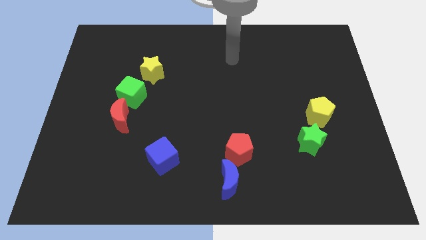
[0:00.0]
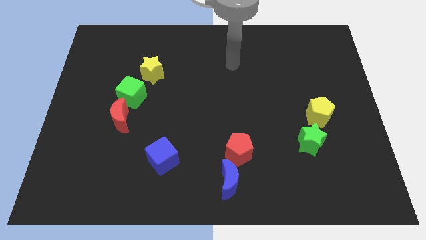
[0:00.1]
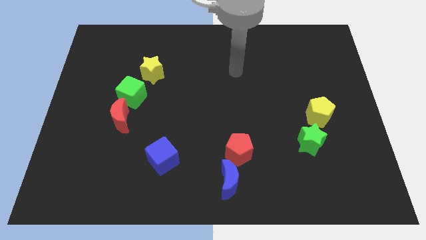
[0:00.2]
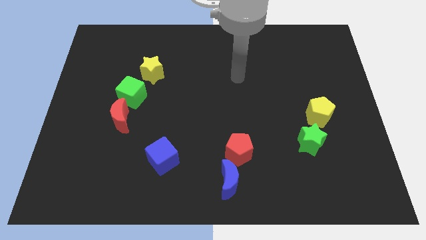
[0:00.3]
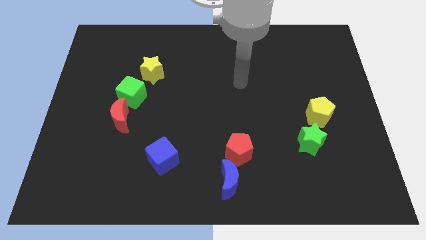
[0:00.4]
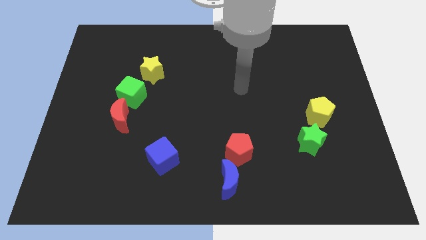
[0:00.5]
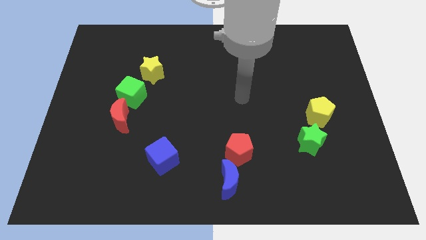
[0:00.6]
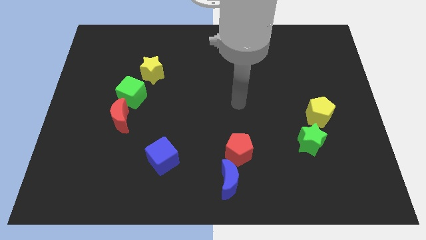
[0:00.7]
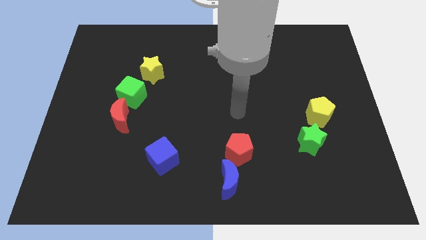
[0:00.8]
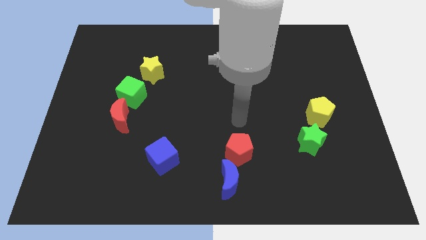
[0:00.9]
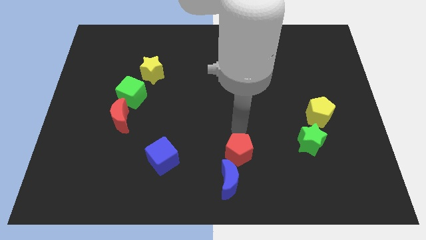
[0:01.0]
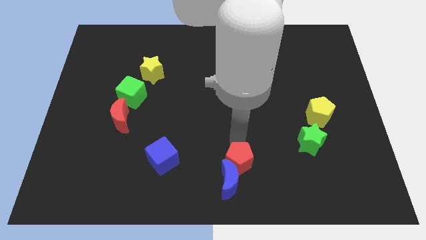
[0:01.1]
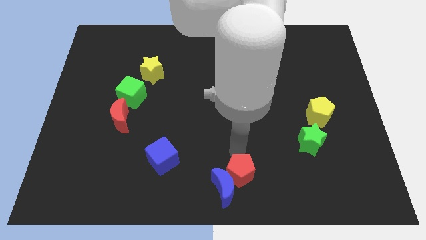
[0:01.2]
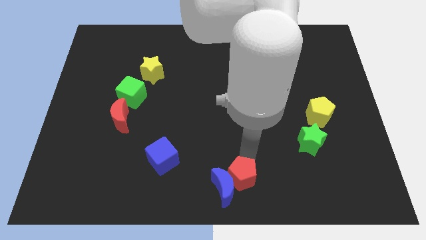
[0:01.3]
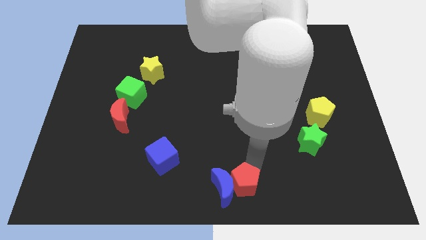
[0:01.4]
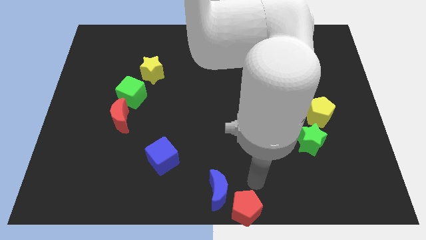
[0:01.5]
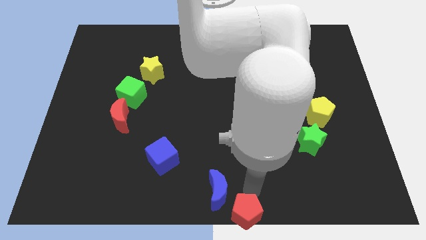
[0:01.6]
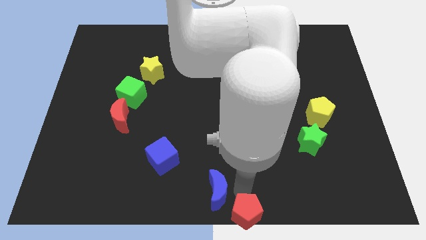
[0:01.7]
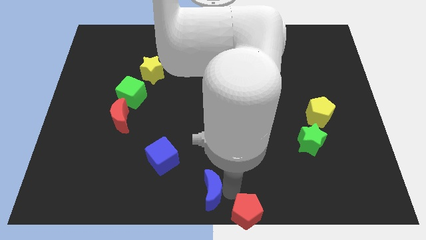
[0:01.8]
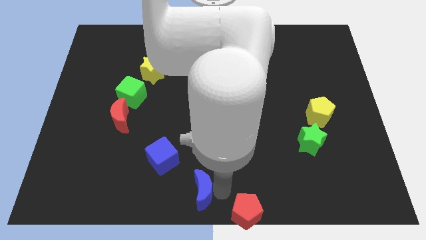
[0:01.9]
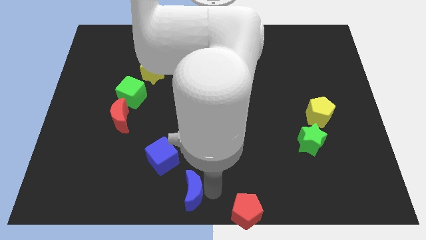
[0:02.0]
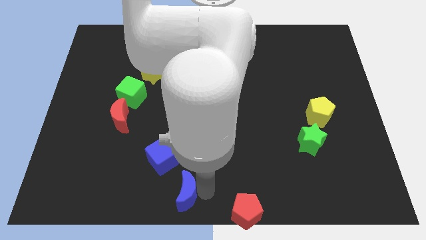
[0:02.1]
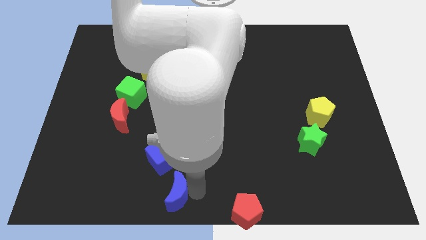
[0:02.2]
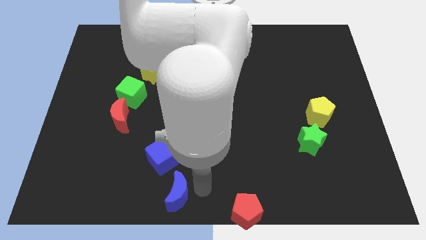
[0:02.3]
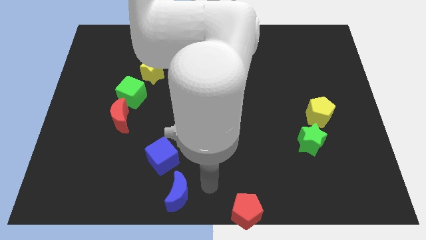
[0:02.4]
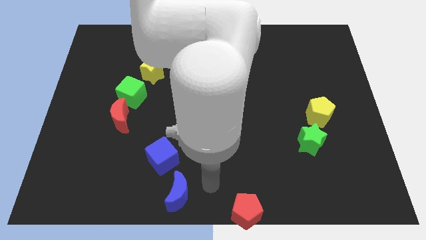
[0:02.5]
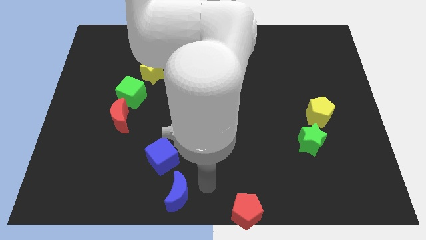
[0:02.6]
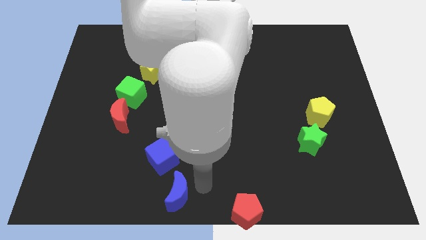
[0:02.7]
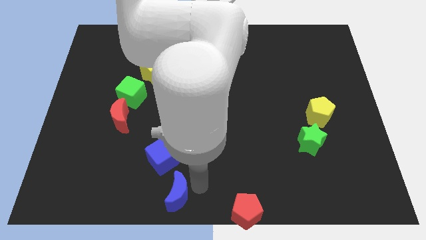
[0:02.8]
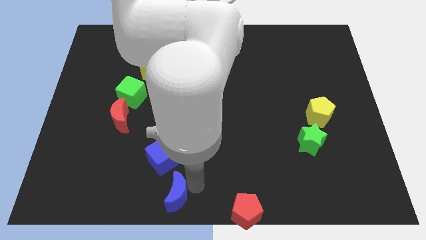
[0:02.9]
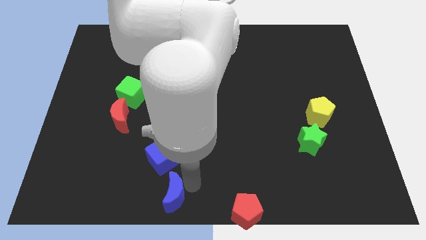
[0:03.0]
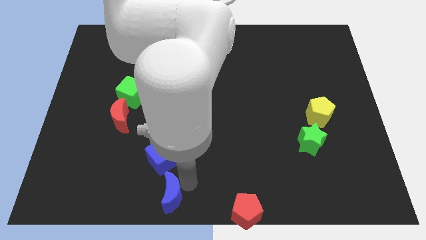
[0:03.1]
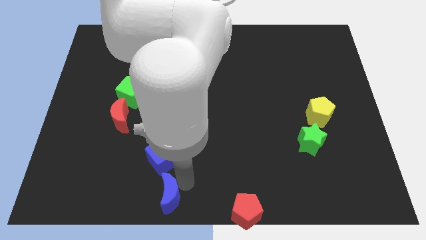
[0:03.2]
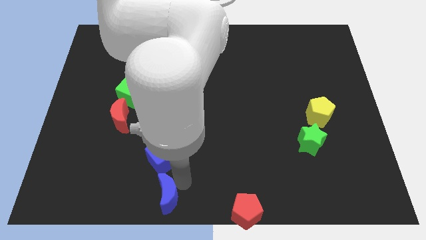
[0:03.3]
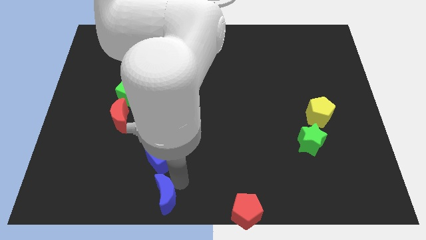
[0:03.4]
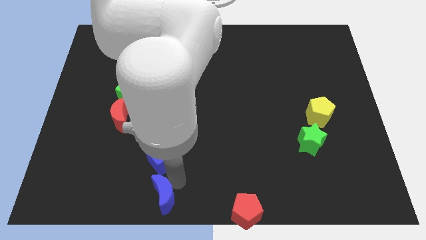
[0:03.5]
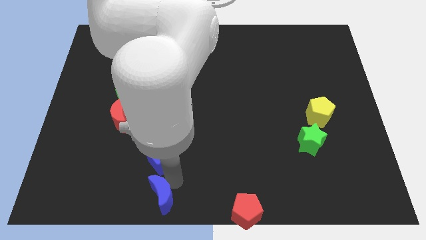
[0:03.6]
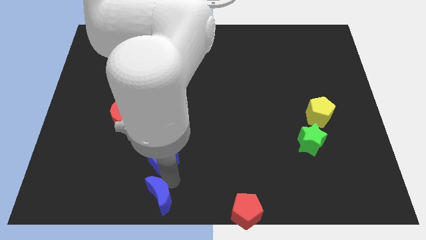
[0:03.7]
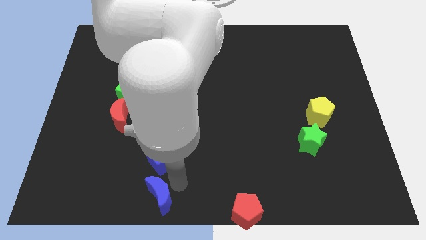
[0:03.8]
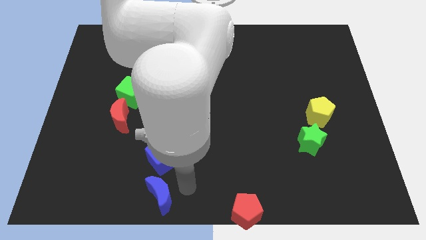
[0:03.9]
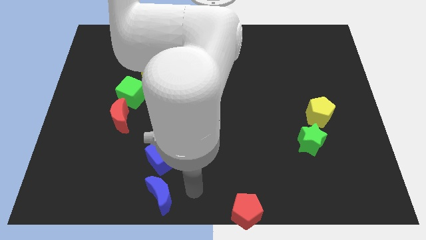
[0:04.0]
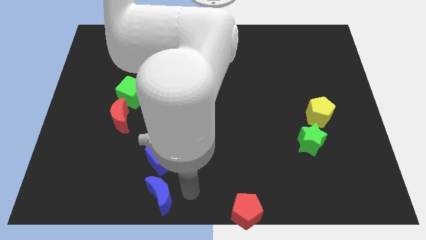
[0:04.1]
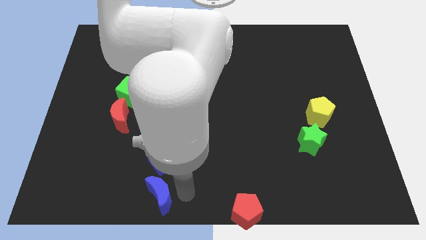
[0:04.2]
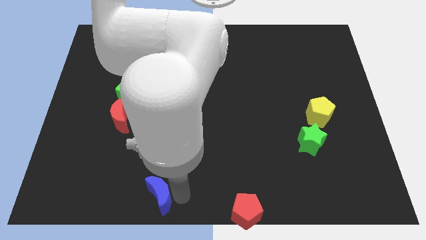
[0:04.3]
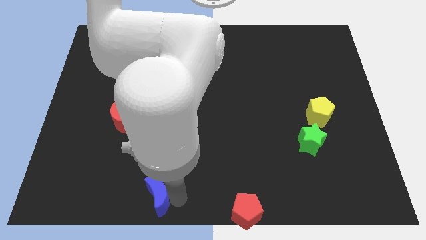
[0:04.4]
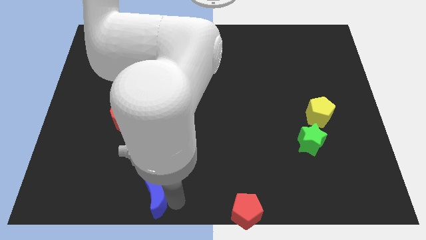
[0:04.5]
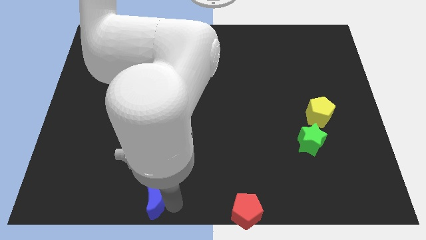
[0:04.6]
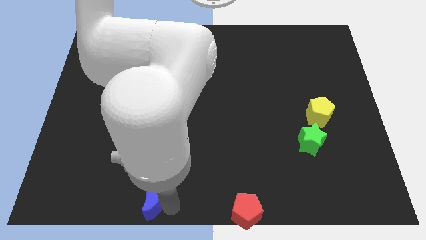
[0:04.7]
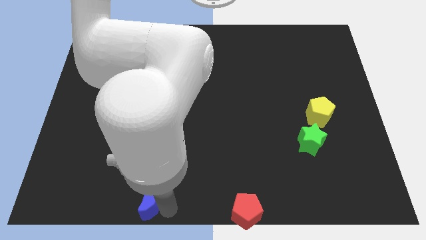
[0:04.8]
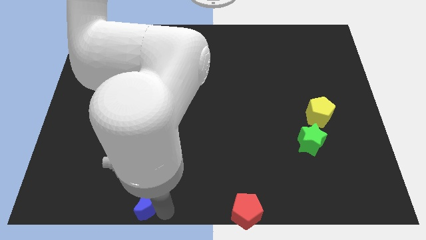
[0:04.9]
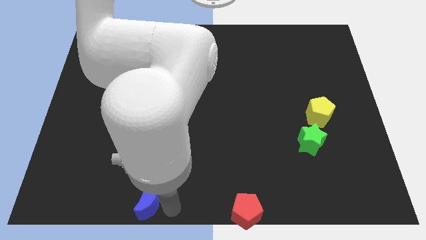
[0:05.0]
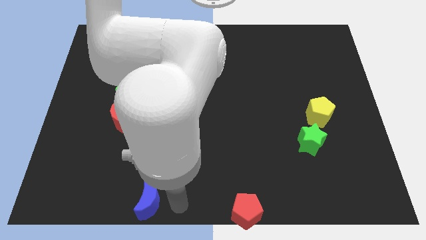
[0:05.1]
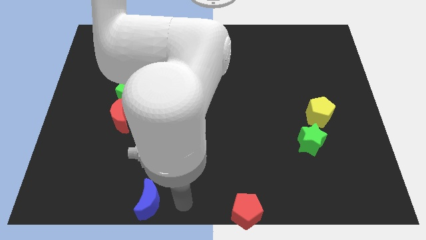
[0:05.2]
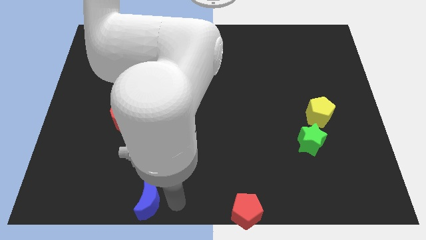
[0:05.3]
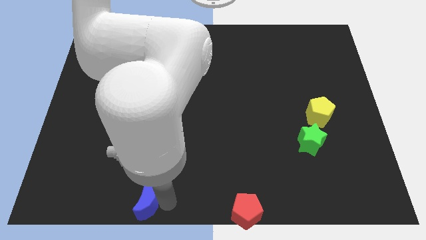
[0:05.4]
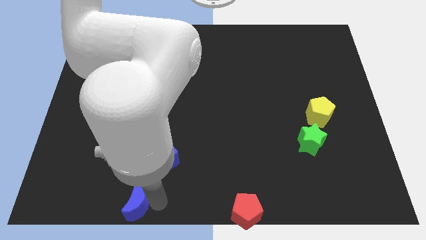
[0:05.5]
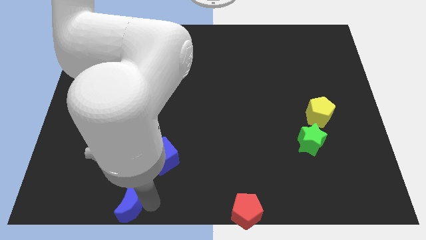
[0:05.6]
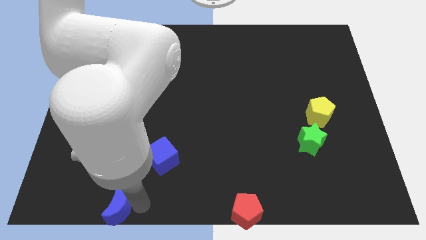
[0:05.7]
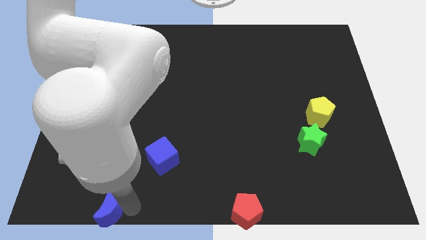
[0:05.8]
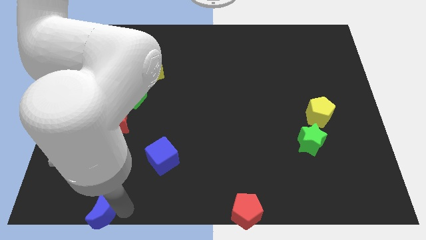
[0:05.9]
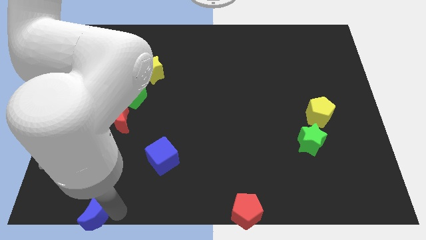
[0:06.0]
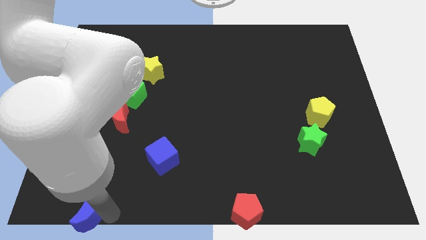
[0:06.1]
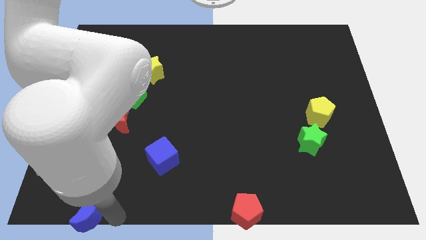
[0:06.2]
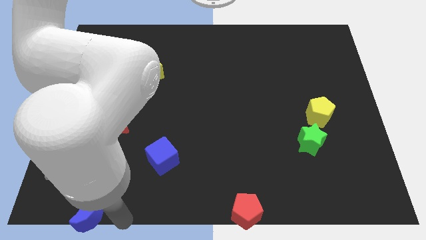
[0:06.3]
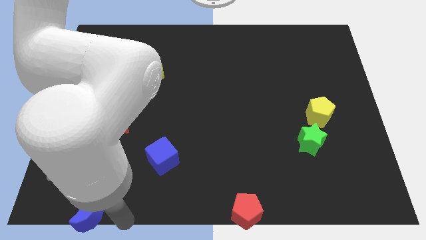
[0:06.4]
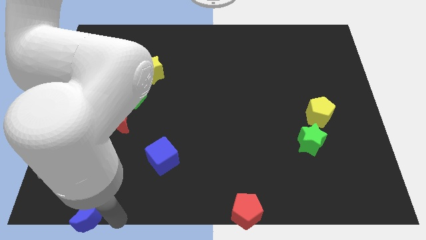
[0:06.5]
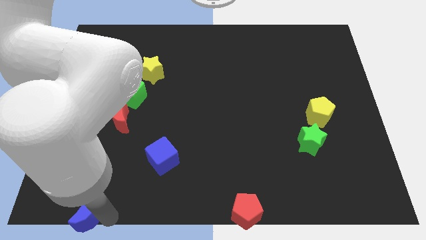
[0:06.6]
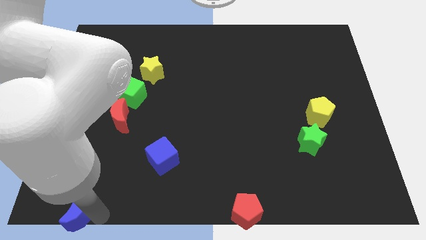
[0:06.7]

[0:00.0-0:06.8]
push the blue moon to the bottom left corner

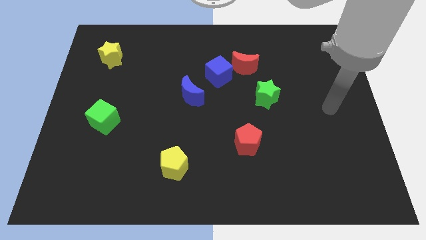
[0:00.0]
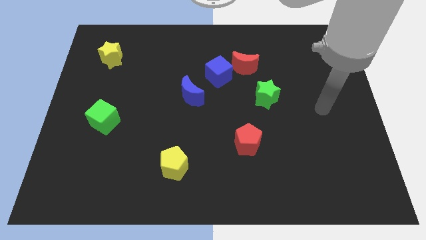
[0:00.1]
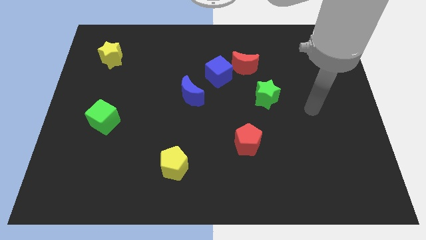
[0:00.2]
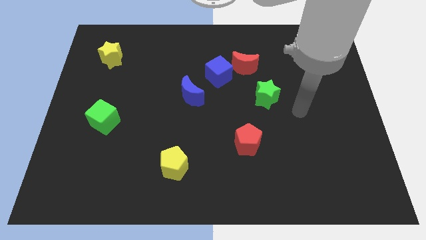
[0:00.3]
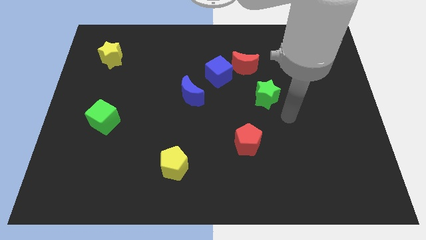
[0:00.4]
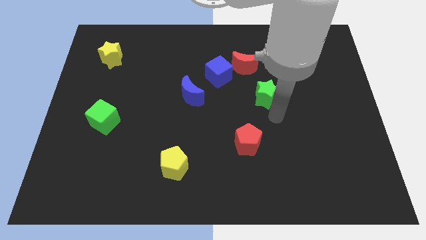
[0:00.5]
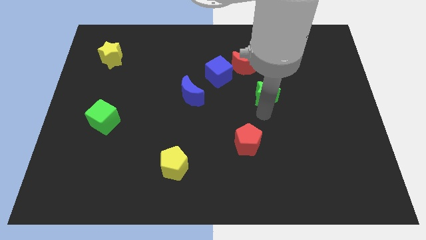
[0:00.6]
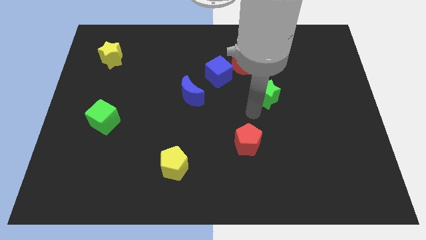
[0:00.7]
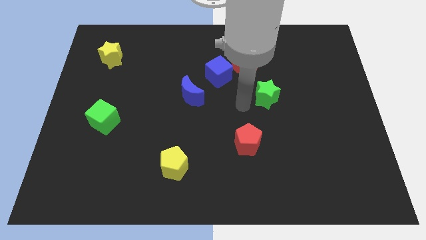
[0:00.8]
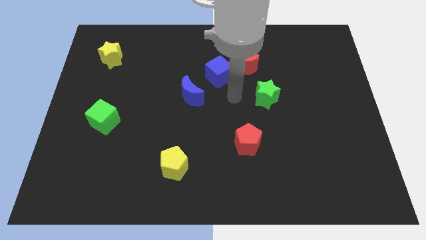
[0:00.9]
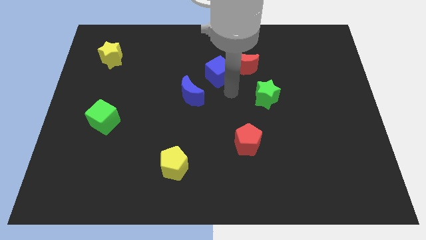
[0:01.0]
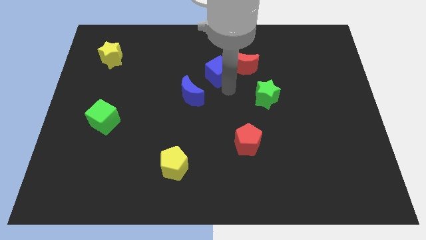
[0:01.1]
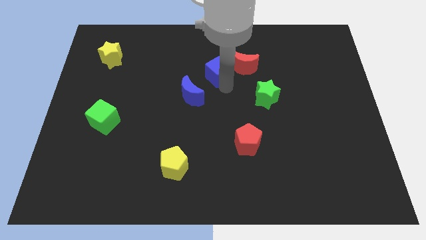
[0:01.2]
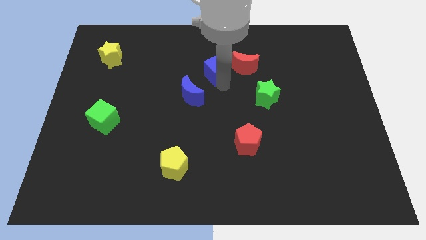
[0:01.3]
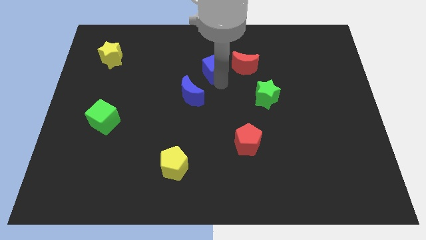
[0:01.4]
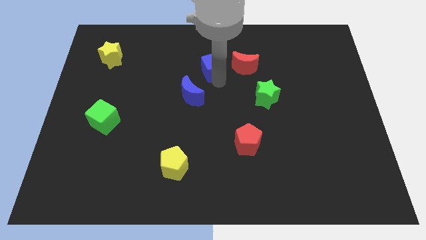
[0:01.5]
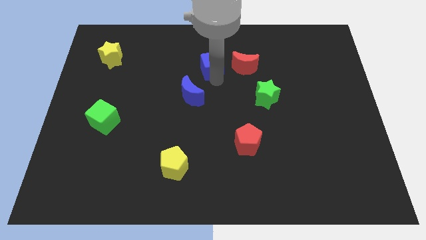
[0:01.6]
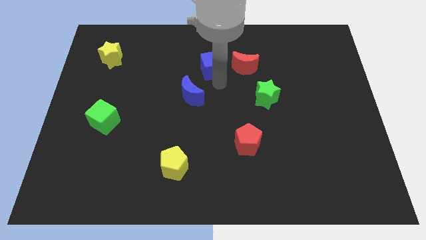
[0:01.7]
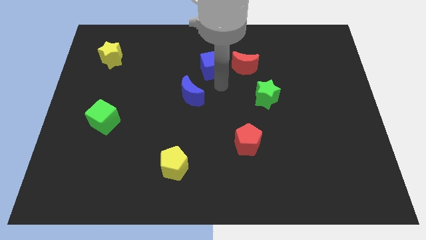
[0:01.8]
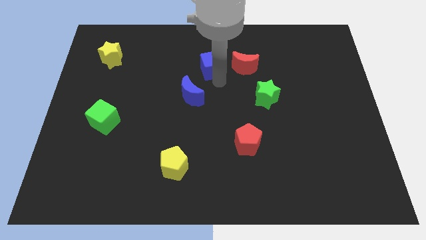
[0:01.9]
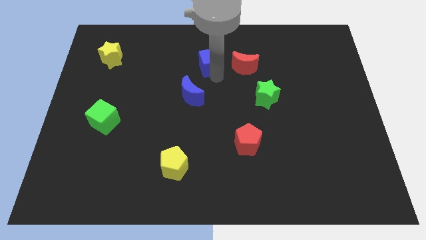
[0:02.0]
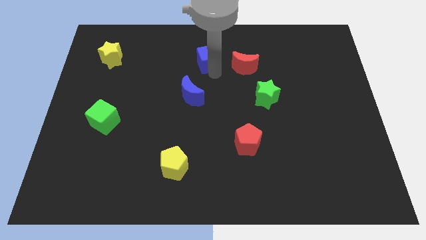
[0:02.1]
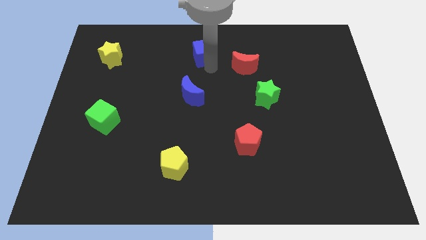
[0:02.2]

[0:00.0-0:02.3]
push the blue cube to the top
